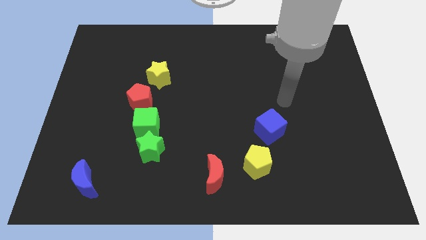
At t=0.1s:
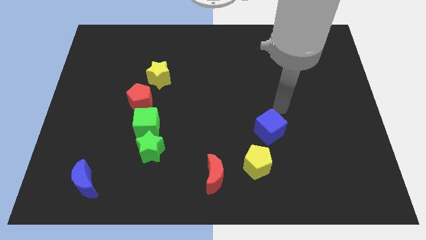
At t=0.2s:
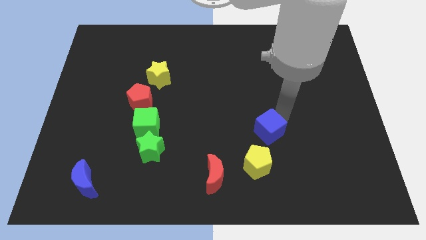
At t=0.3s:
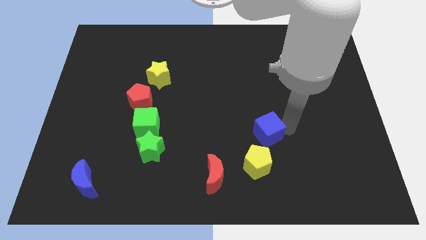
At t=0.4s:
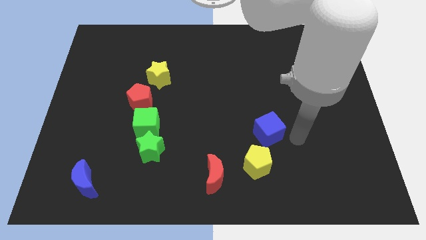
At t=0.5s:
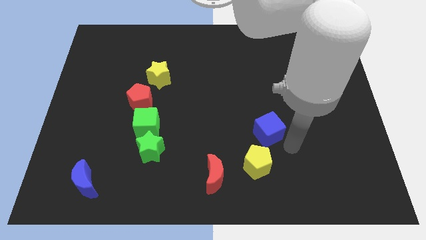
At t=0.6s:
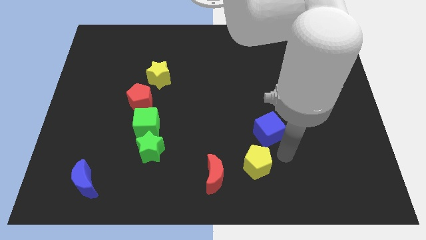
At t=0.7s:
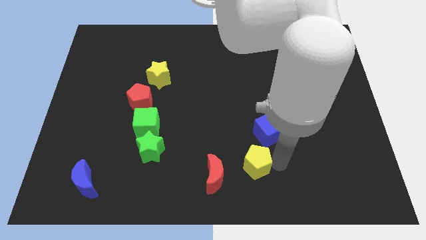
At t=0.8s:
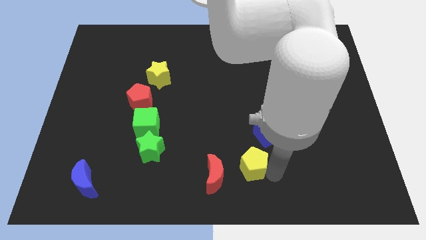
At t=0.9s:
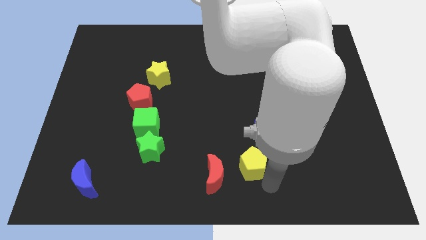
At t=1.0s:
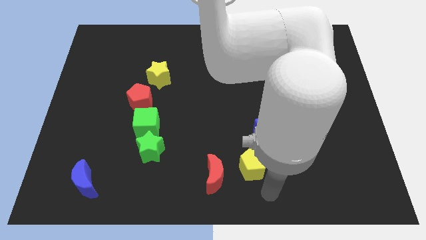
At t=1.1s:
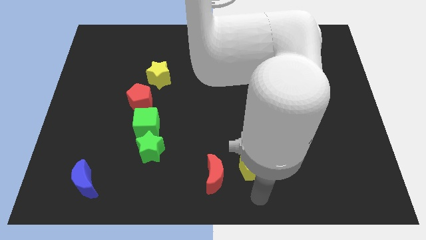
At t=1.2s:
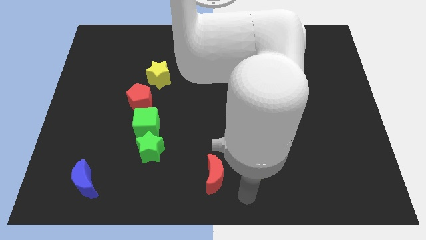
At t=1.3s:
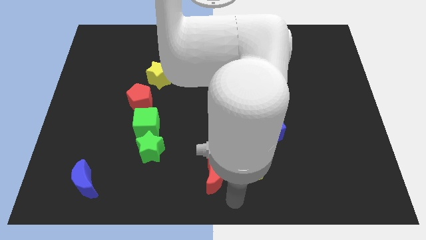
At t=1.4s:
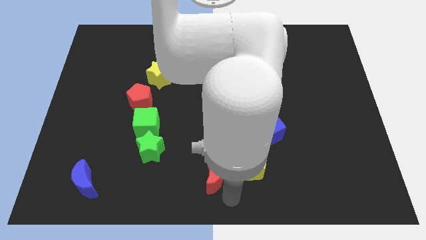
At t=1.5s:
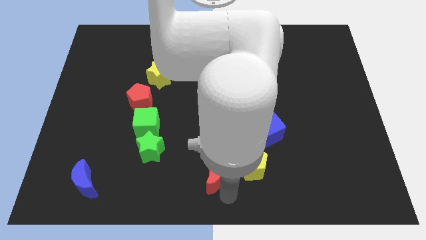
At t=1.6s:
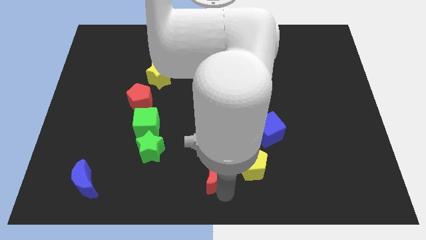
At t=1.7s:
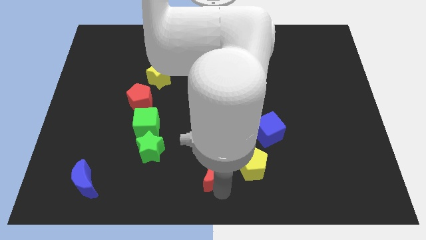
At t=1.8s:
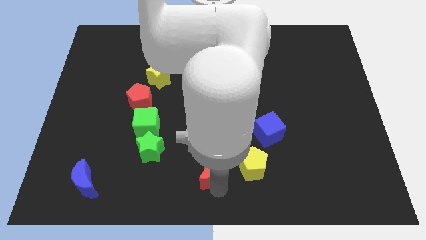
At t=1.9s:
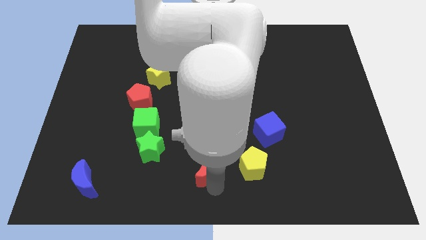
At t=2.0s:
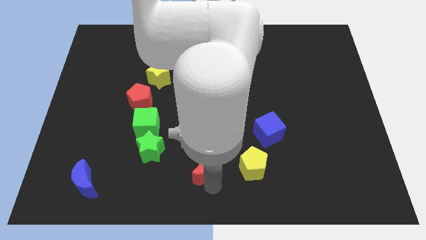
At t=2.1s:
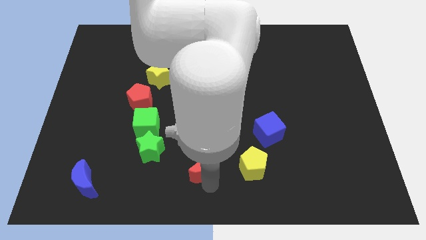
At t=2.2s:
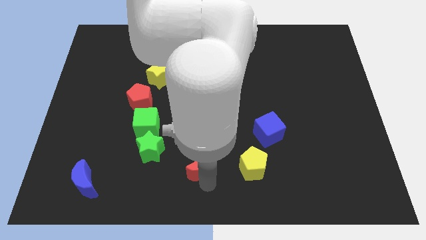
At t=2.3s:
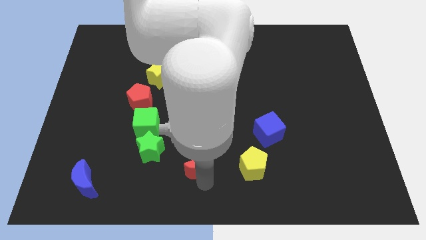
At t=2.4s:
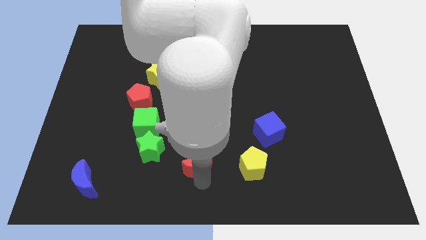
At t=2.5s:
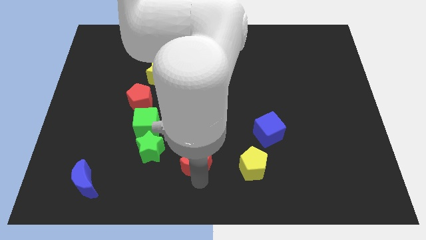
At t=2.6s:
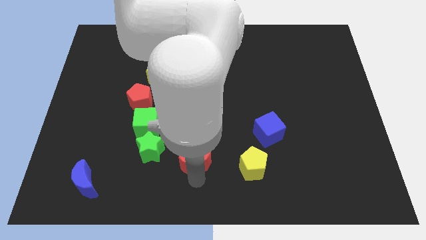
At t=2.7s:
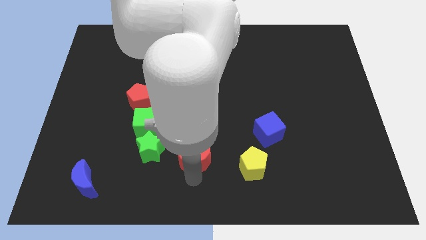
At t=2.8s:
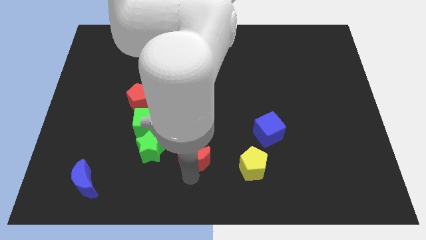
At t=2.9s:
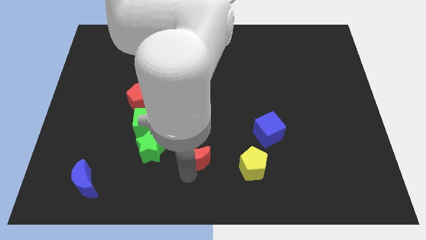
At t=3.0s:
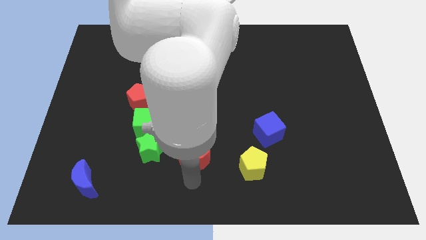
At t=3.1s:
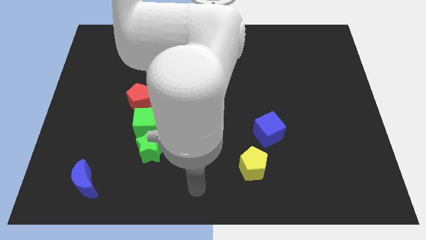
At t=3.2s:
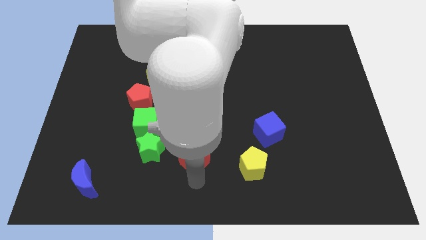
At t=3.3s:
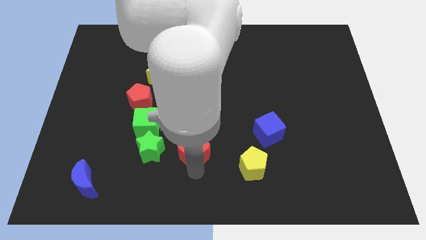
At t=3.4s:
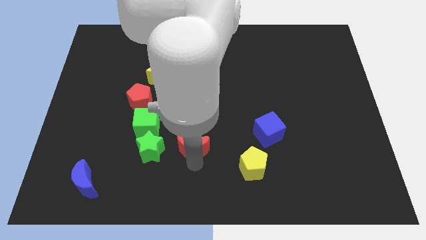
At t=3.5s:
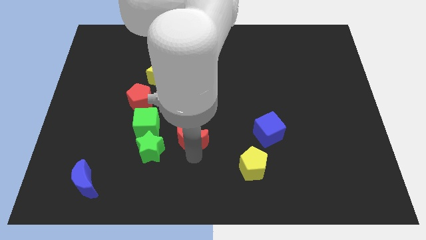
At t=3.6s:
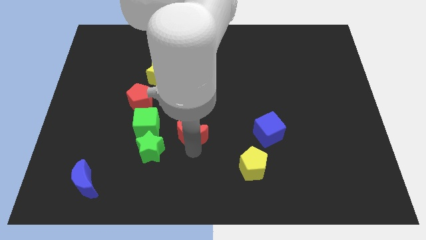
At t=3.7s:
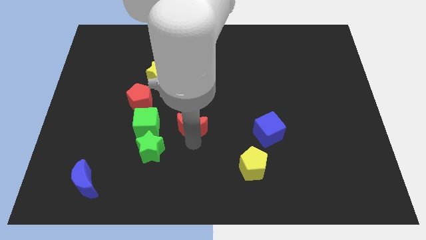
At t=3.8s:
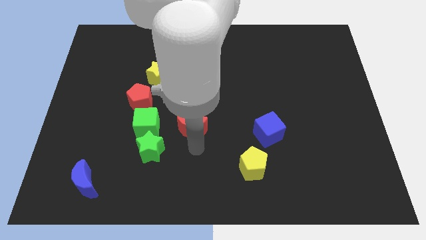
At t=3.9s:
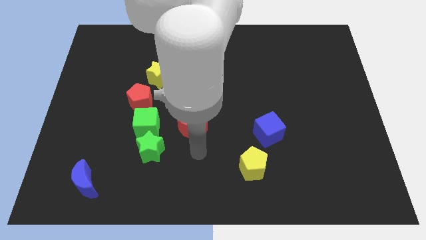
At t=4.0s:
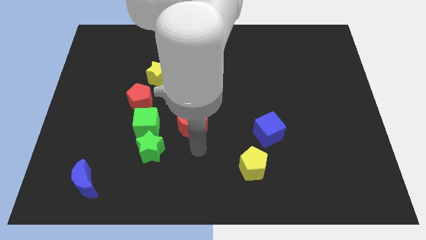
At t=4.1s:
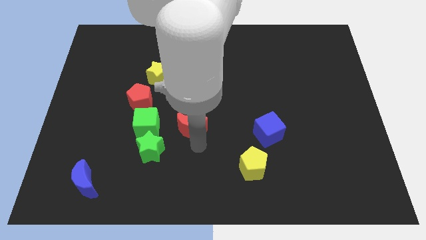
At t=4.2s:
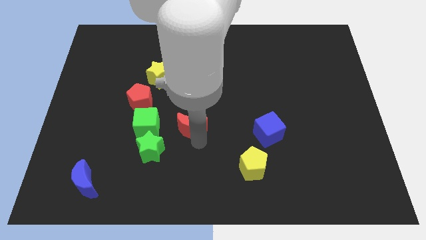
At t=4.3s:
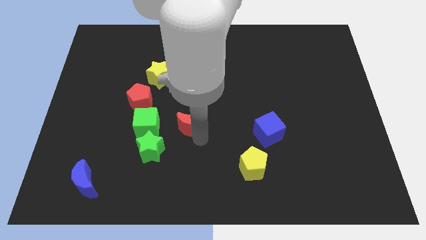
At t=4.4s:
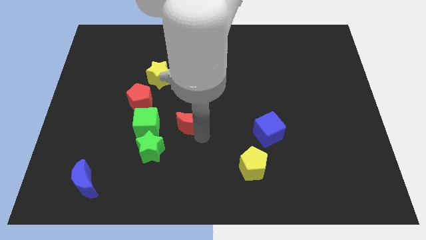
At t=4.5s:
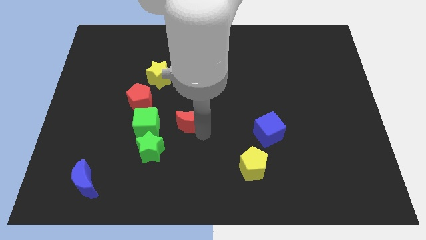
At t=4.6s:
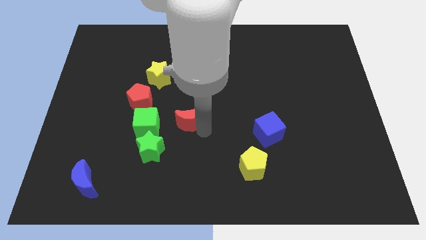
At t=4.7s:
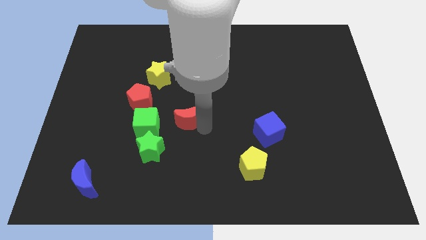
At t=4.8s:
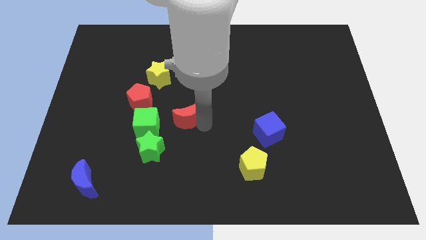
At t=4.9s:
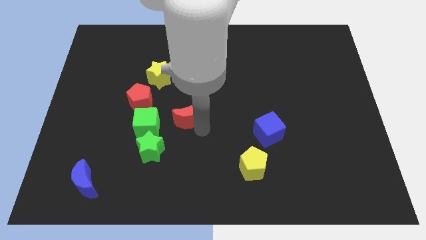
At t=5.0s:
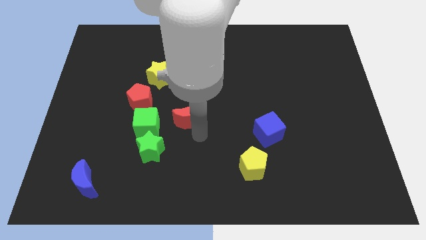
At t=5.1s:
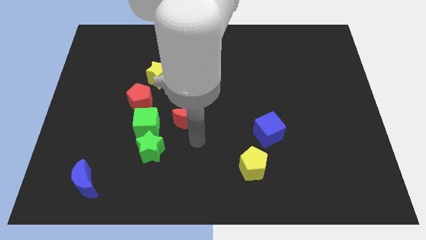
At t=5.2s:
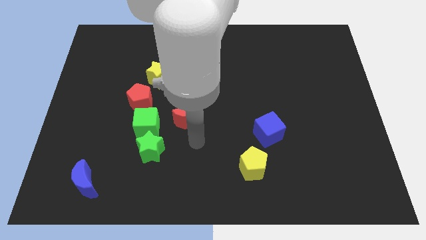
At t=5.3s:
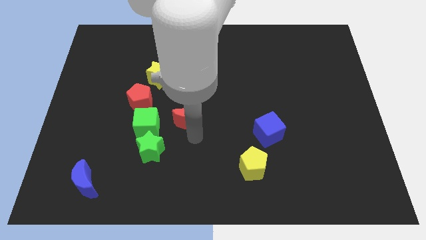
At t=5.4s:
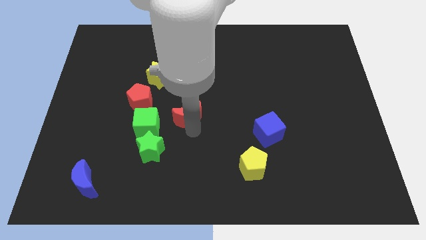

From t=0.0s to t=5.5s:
move the red moon to the right side of the red pentagon

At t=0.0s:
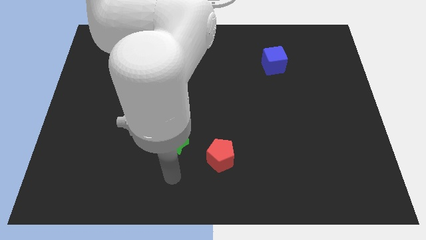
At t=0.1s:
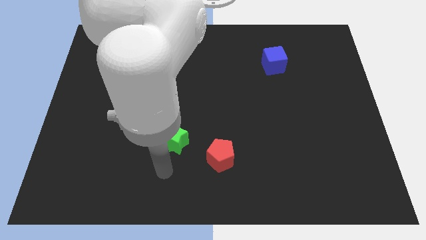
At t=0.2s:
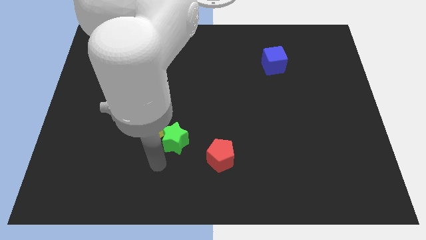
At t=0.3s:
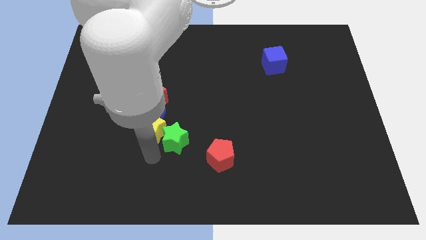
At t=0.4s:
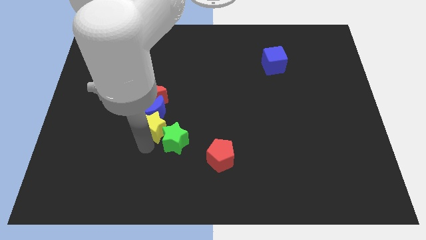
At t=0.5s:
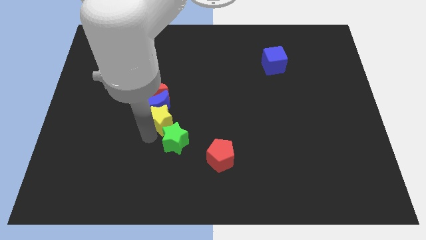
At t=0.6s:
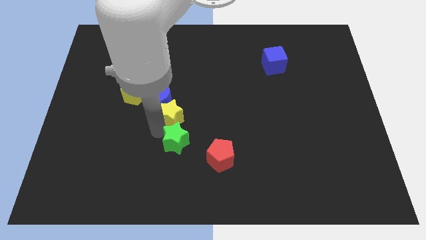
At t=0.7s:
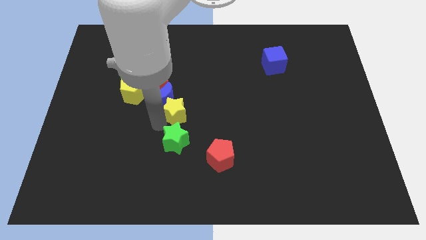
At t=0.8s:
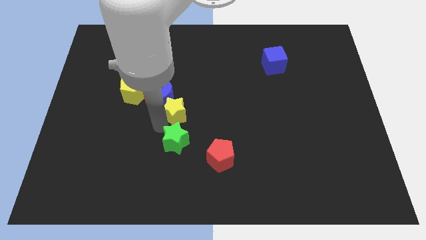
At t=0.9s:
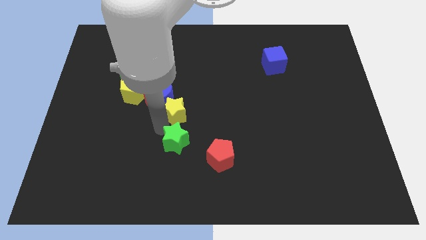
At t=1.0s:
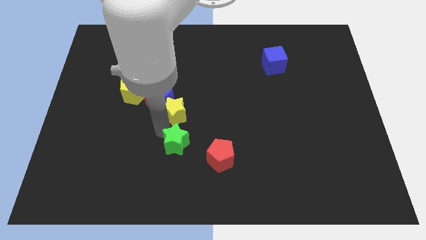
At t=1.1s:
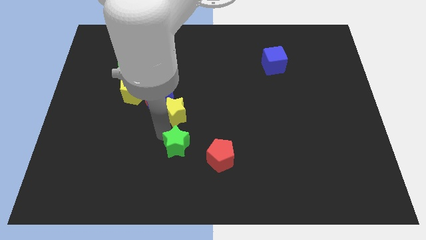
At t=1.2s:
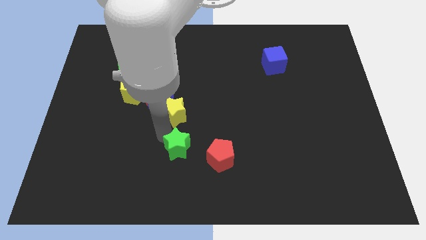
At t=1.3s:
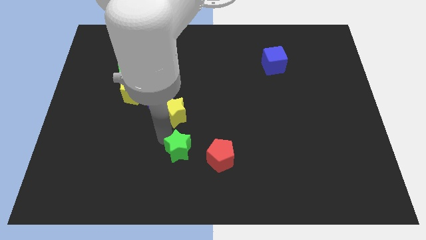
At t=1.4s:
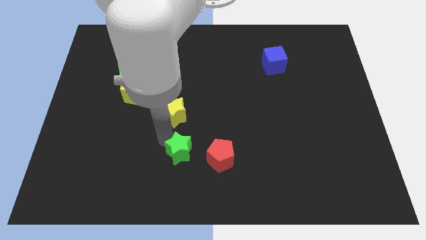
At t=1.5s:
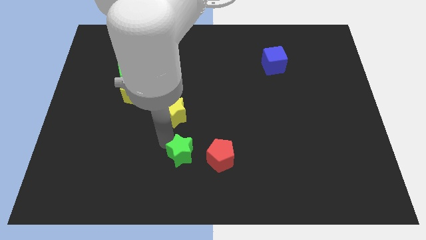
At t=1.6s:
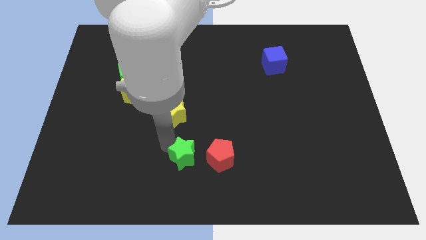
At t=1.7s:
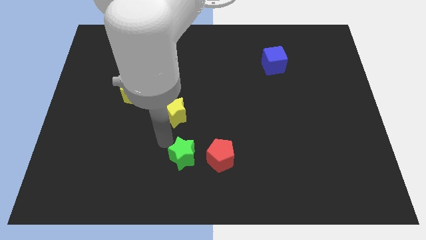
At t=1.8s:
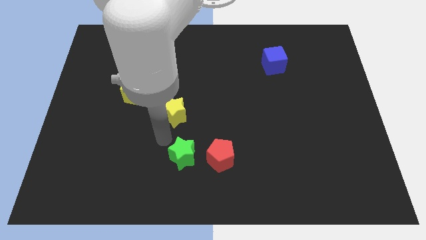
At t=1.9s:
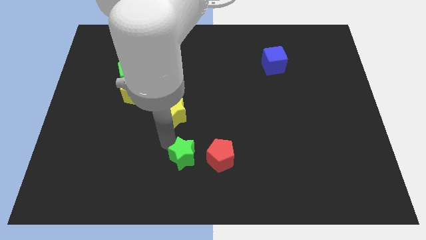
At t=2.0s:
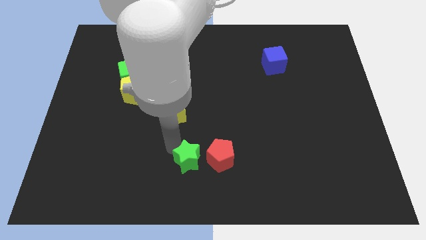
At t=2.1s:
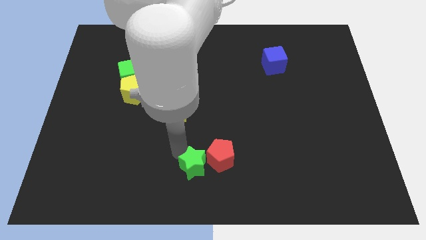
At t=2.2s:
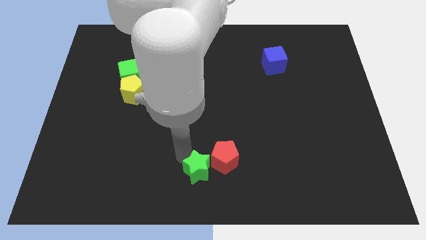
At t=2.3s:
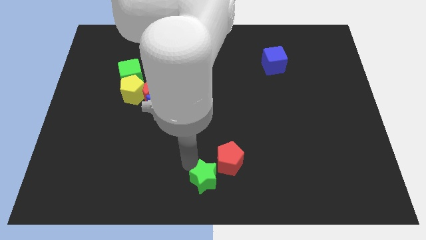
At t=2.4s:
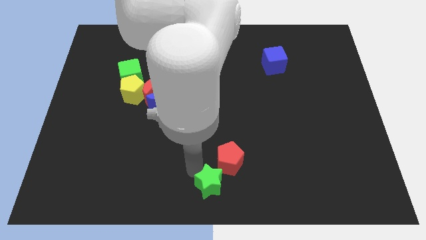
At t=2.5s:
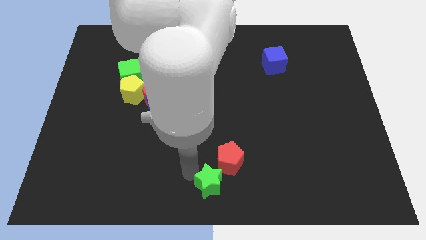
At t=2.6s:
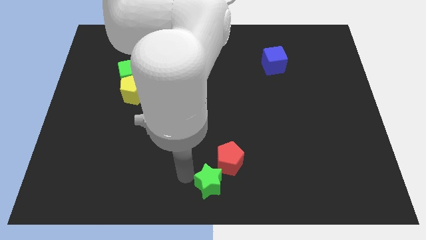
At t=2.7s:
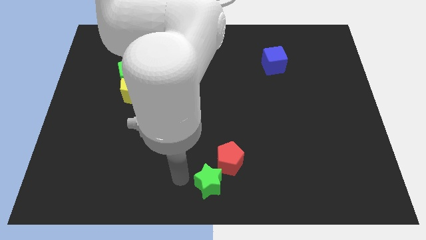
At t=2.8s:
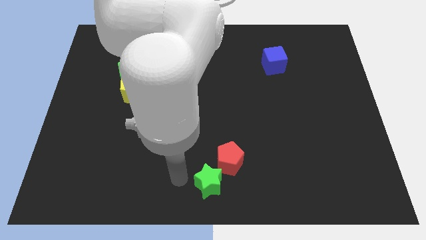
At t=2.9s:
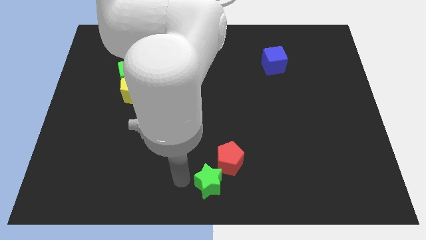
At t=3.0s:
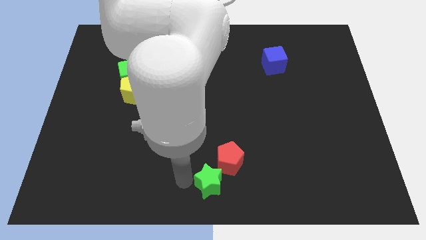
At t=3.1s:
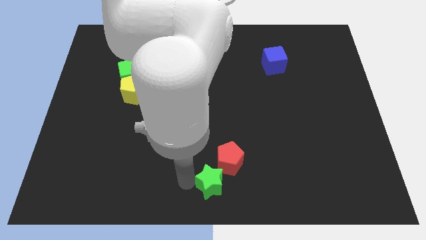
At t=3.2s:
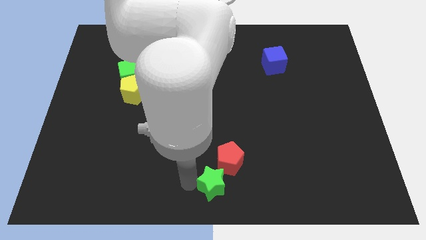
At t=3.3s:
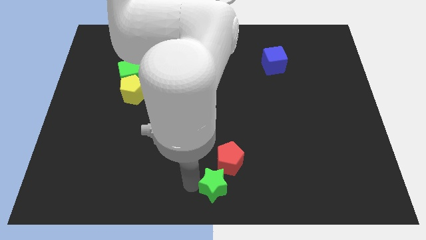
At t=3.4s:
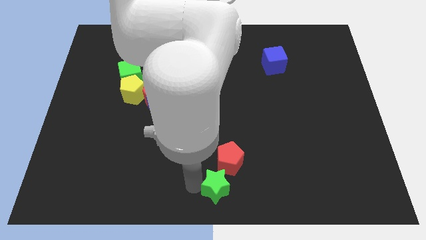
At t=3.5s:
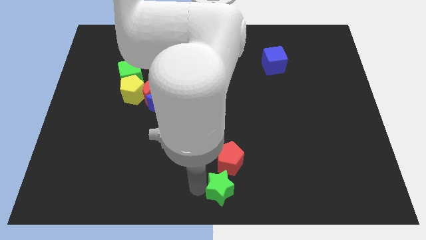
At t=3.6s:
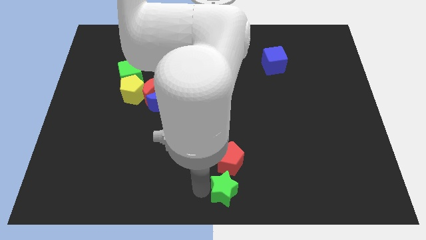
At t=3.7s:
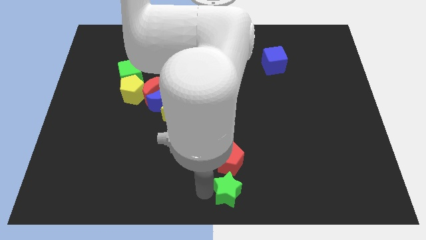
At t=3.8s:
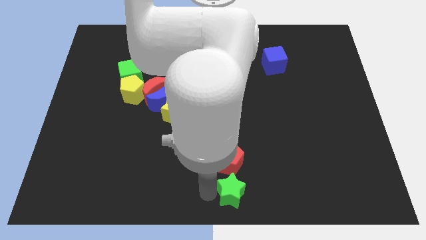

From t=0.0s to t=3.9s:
slide the green star to the bottom right of the red pentagon
